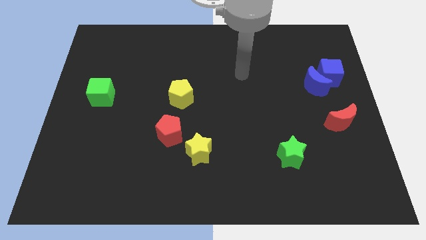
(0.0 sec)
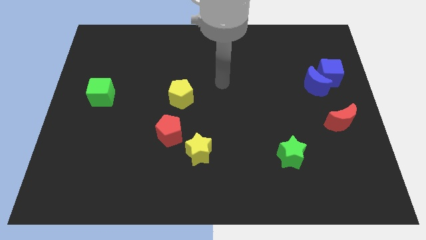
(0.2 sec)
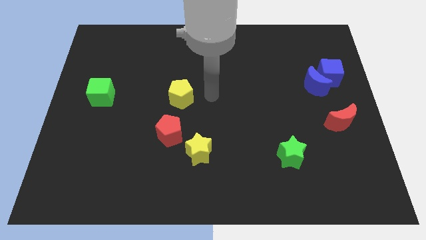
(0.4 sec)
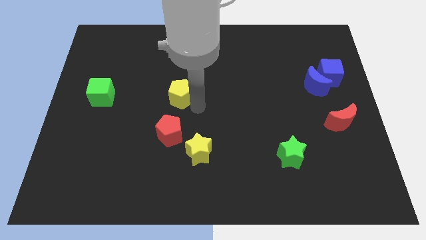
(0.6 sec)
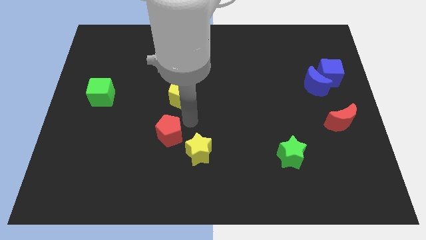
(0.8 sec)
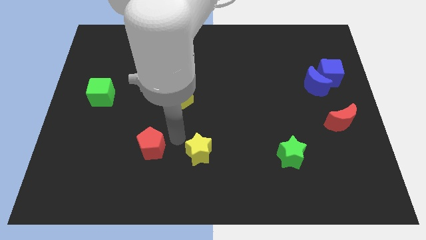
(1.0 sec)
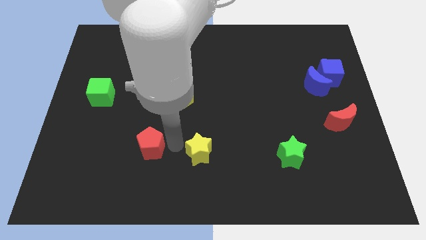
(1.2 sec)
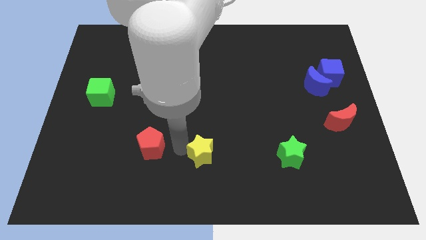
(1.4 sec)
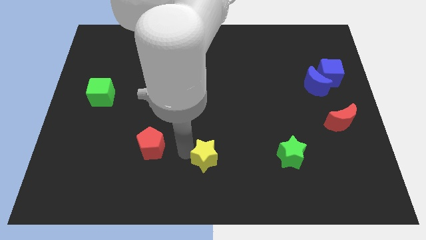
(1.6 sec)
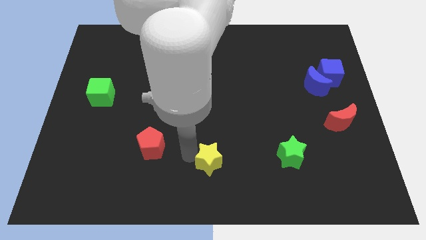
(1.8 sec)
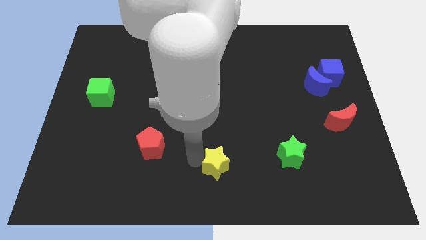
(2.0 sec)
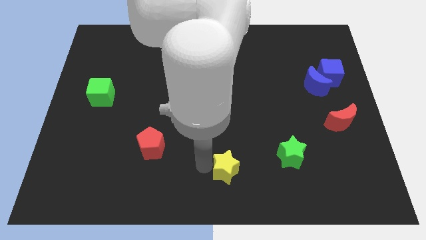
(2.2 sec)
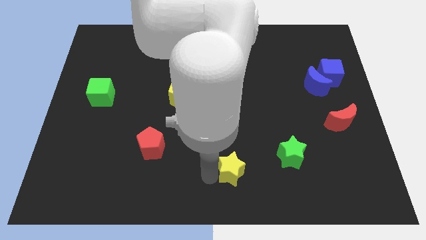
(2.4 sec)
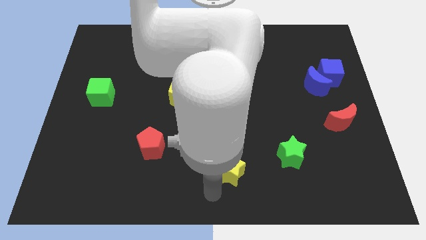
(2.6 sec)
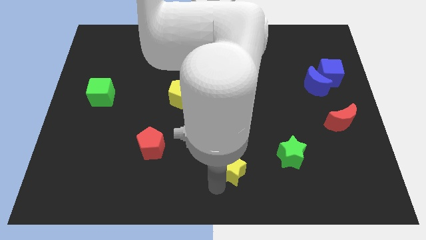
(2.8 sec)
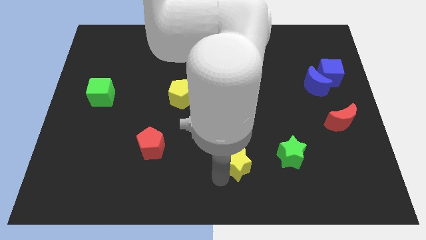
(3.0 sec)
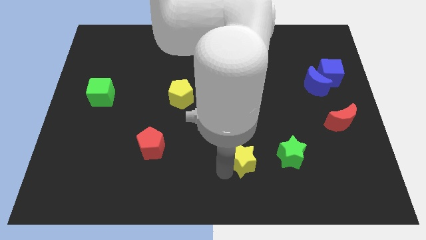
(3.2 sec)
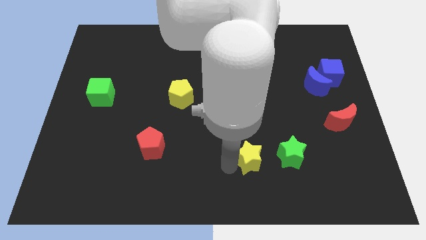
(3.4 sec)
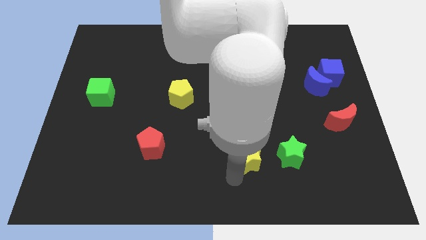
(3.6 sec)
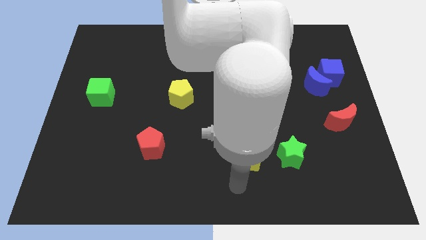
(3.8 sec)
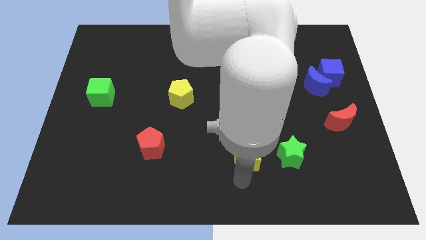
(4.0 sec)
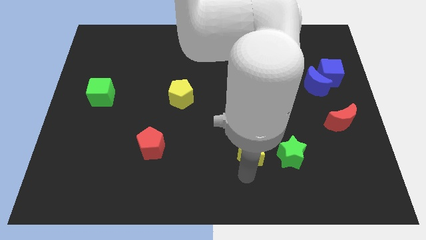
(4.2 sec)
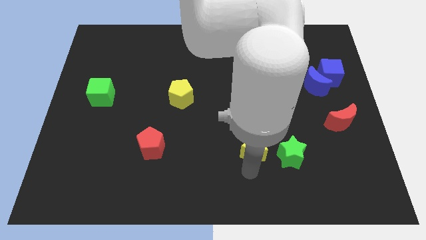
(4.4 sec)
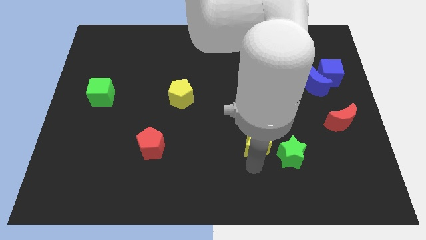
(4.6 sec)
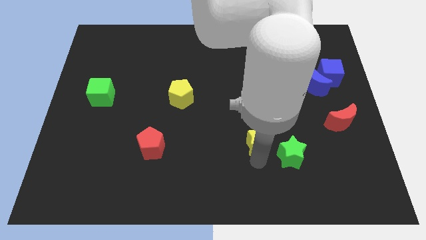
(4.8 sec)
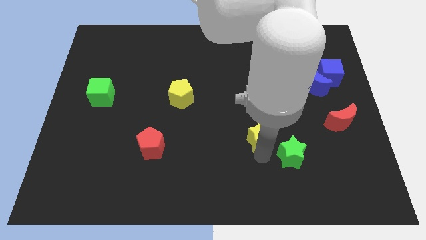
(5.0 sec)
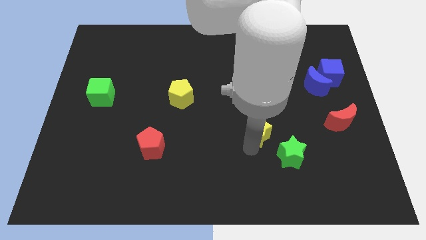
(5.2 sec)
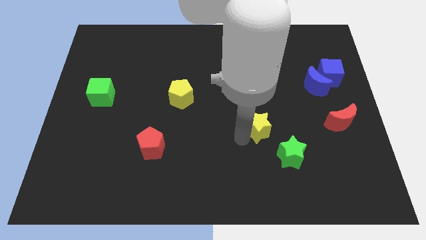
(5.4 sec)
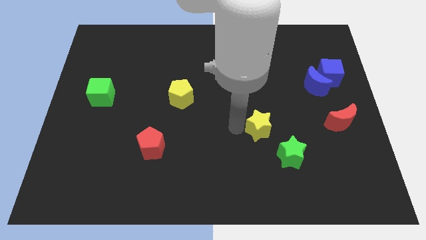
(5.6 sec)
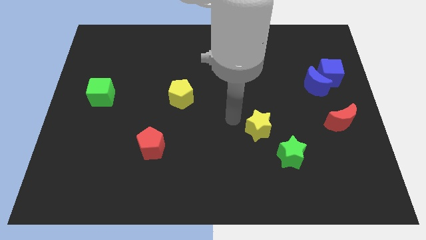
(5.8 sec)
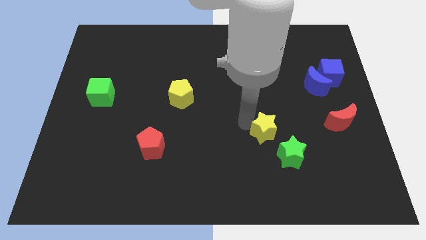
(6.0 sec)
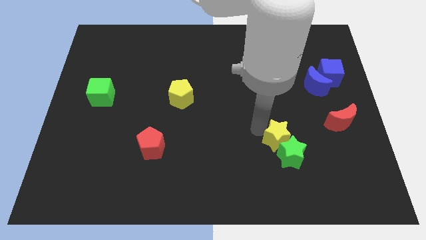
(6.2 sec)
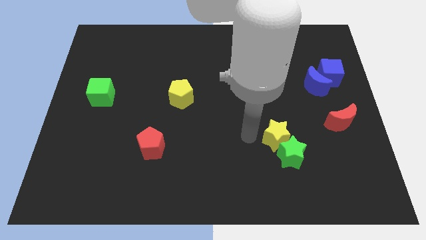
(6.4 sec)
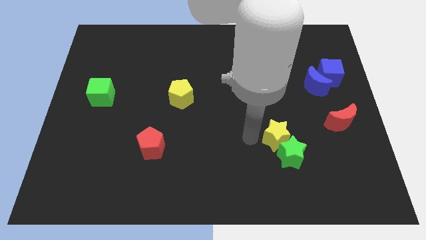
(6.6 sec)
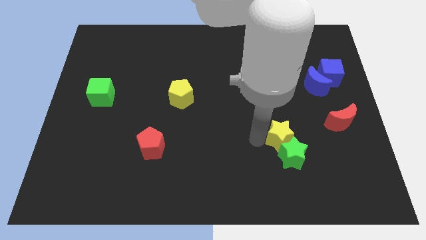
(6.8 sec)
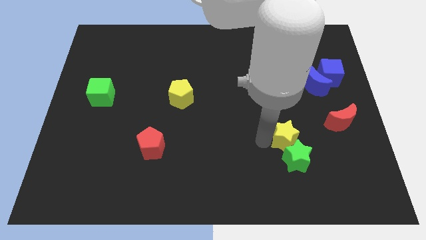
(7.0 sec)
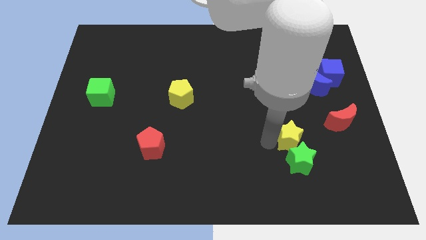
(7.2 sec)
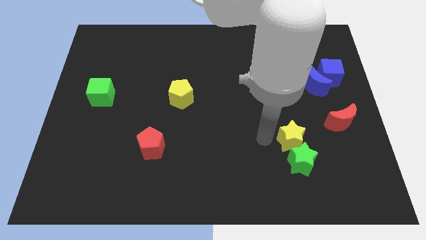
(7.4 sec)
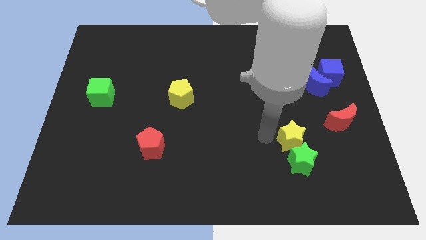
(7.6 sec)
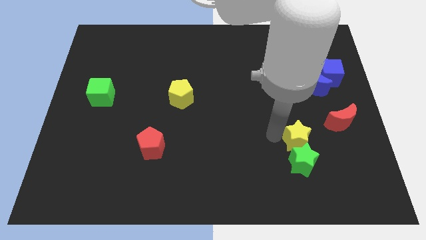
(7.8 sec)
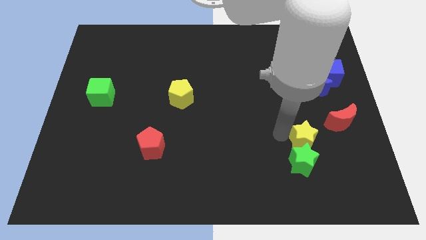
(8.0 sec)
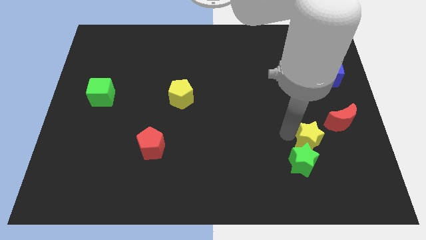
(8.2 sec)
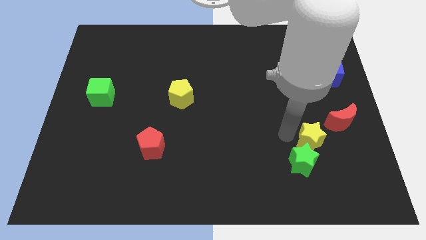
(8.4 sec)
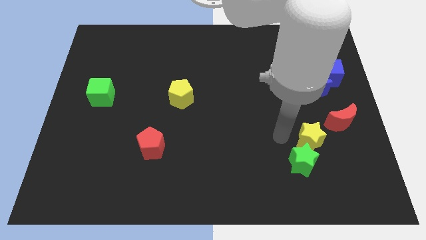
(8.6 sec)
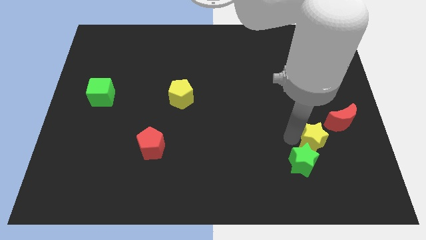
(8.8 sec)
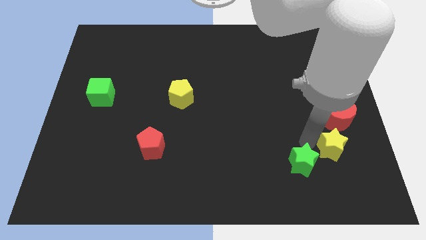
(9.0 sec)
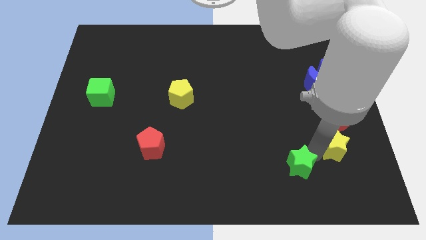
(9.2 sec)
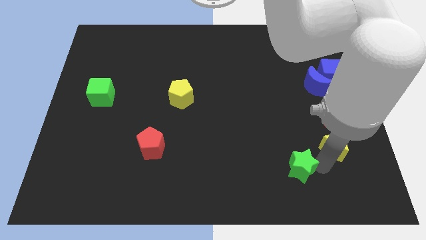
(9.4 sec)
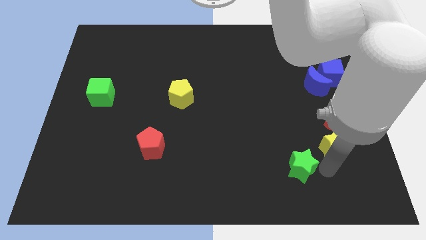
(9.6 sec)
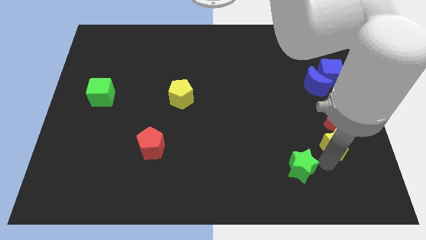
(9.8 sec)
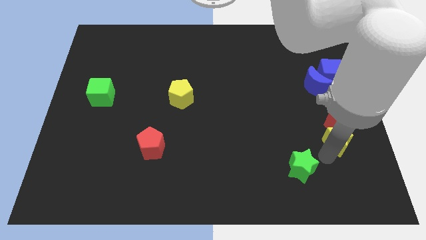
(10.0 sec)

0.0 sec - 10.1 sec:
put the yellow star close to the red moon

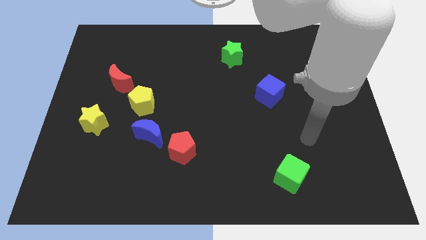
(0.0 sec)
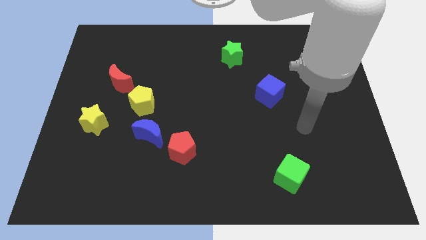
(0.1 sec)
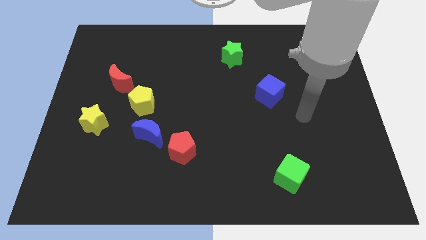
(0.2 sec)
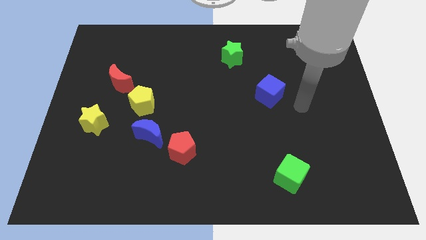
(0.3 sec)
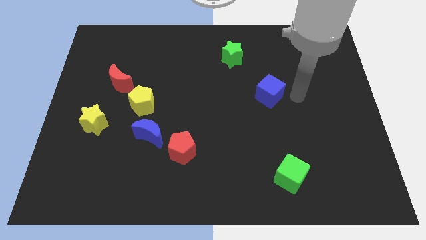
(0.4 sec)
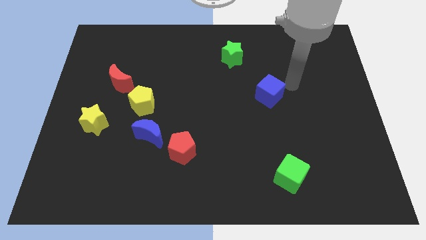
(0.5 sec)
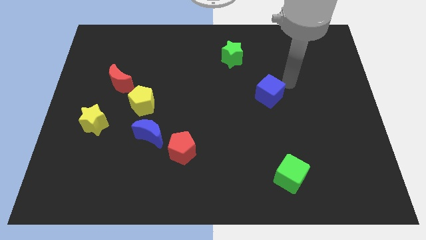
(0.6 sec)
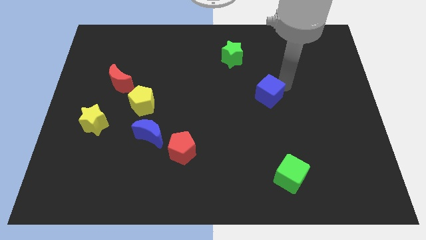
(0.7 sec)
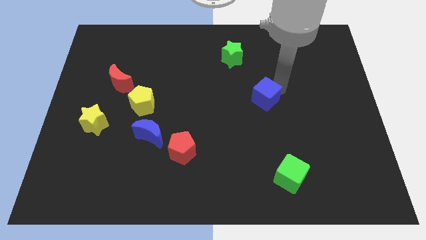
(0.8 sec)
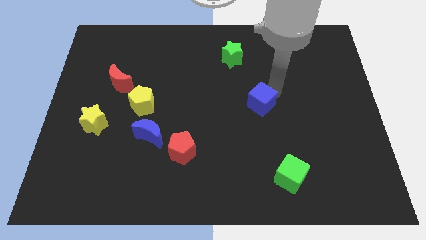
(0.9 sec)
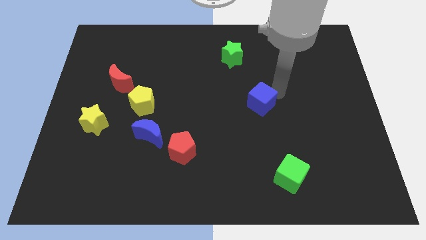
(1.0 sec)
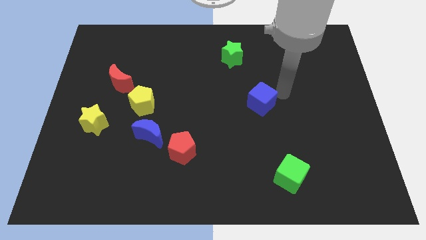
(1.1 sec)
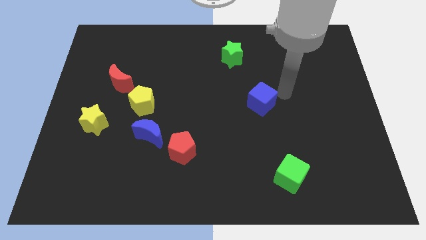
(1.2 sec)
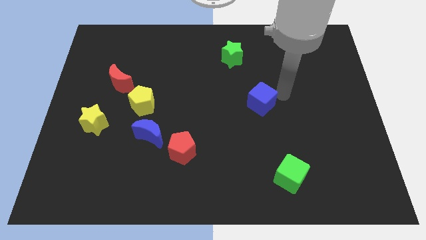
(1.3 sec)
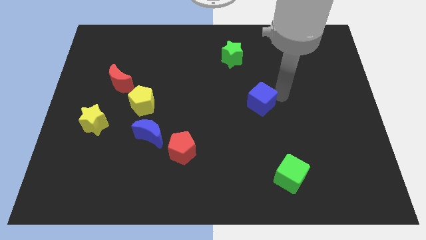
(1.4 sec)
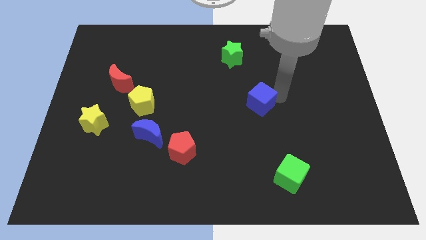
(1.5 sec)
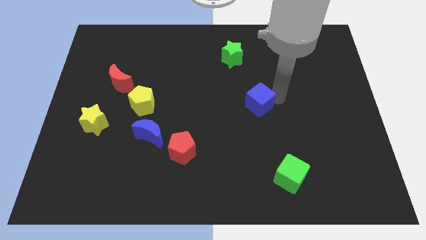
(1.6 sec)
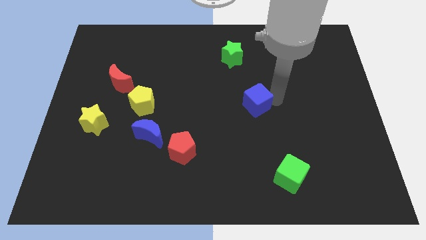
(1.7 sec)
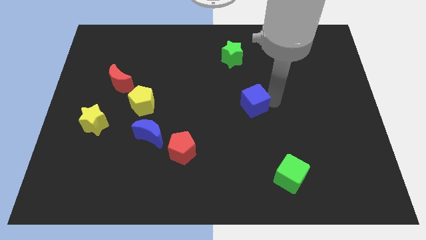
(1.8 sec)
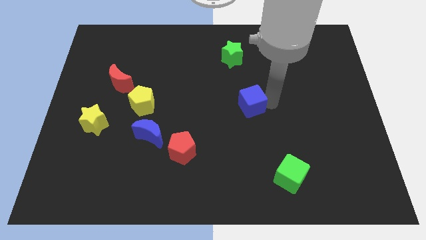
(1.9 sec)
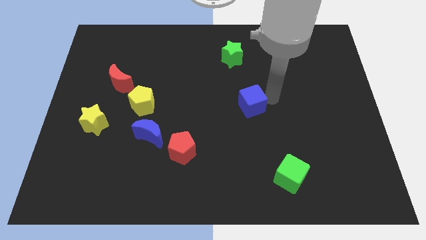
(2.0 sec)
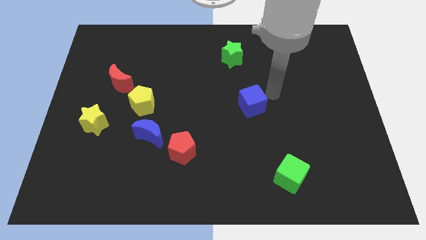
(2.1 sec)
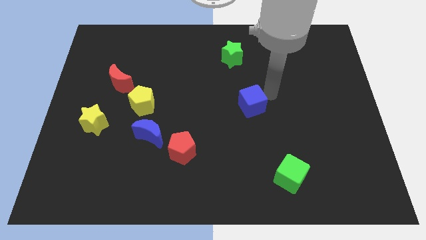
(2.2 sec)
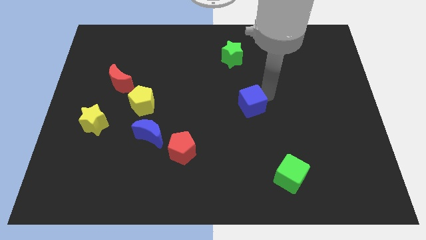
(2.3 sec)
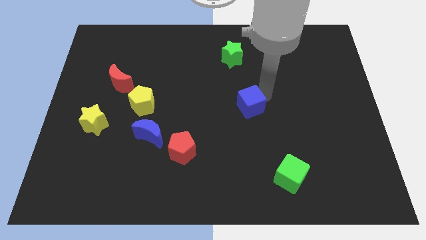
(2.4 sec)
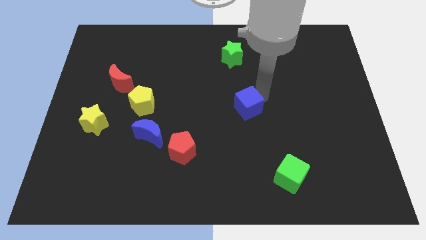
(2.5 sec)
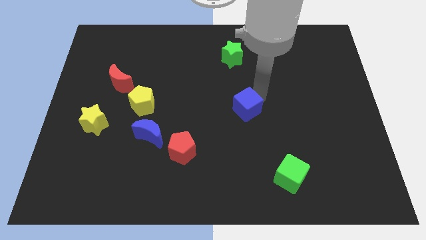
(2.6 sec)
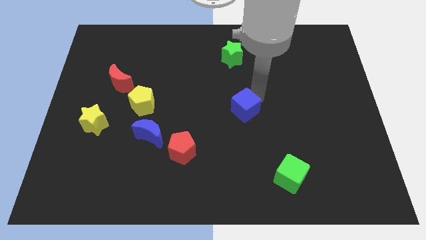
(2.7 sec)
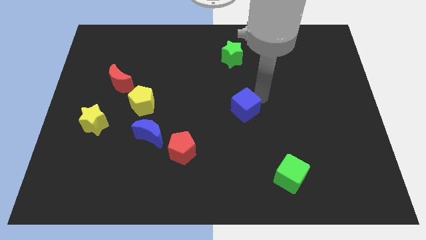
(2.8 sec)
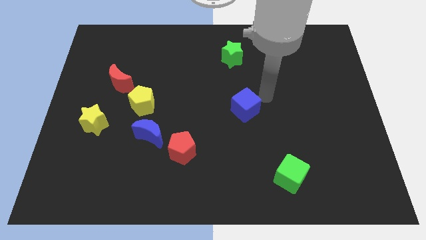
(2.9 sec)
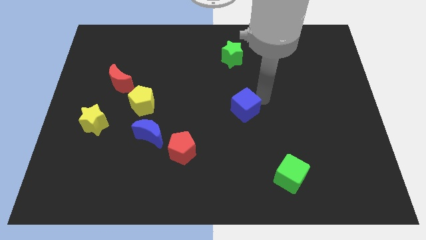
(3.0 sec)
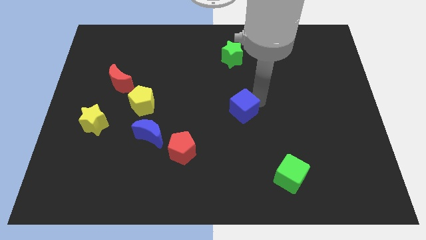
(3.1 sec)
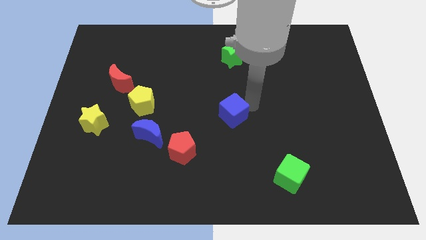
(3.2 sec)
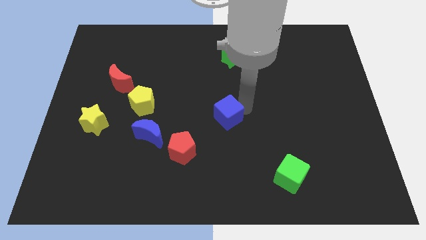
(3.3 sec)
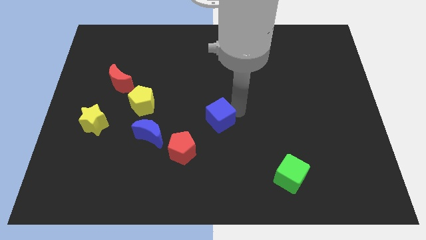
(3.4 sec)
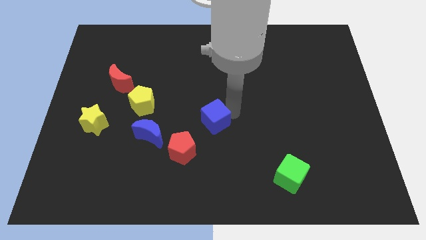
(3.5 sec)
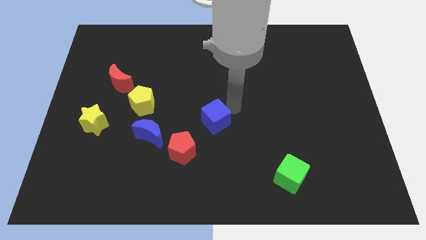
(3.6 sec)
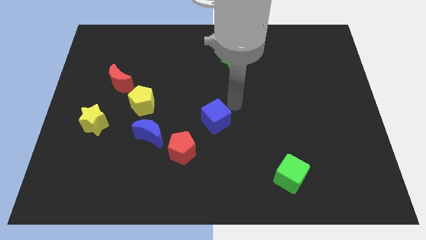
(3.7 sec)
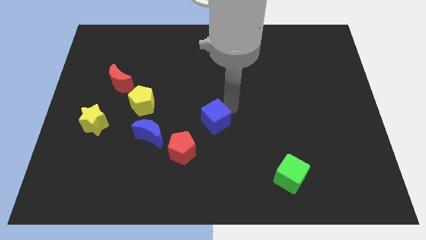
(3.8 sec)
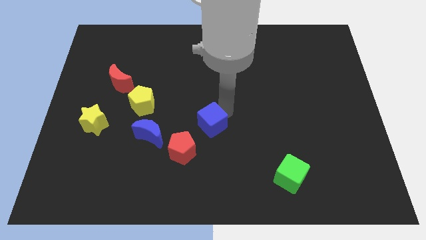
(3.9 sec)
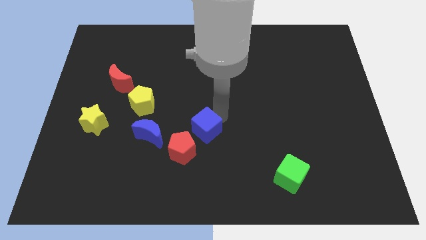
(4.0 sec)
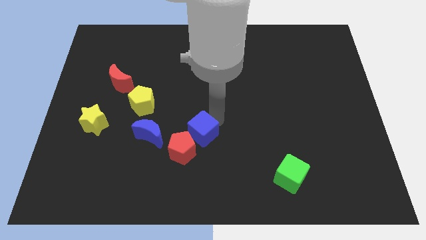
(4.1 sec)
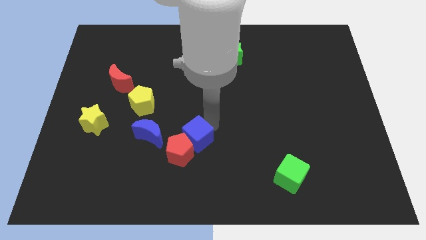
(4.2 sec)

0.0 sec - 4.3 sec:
put the blue cube next to the red pentagon
